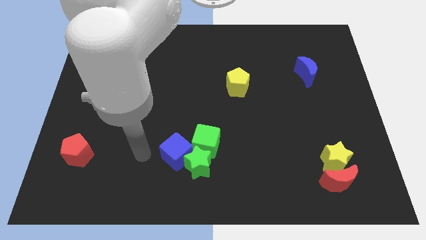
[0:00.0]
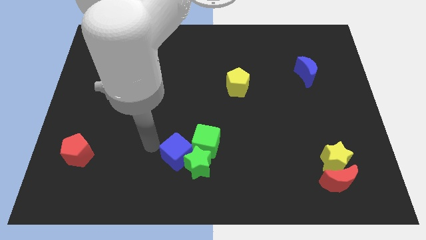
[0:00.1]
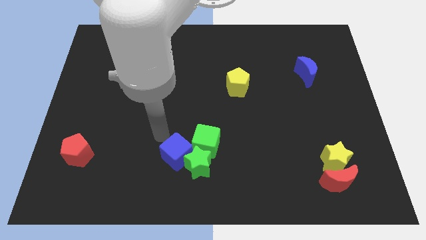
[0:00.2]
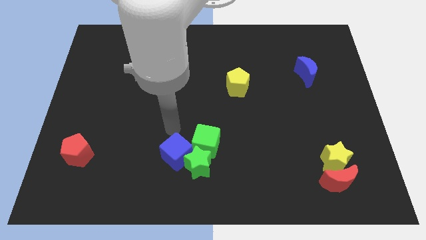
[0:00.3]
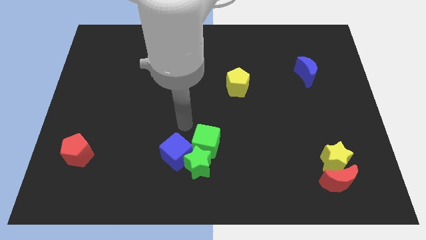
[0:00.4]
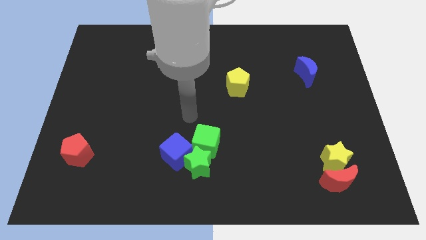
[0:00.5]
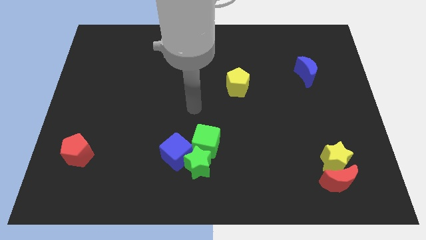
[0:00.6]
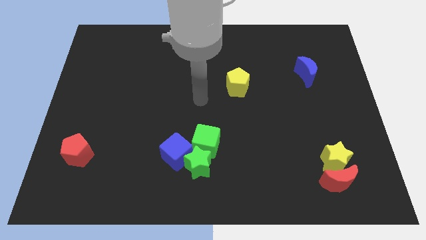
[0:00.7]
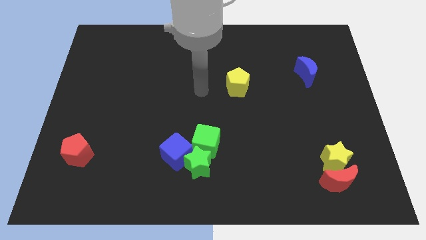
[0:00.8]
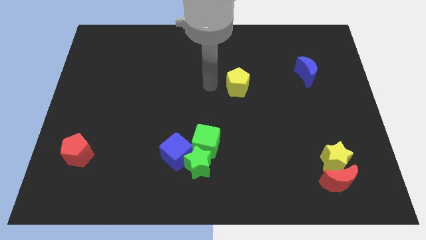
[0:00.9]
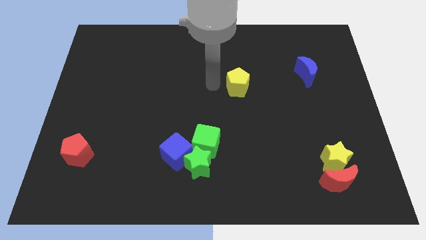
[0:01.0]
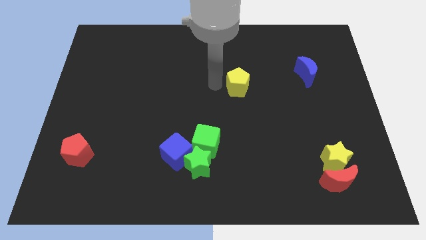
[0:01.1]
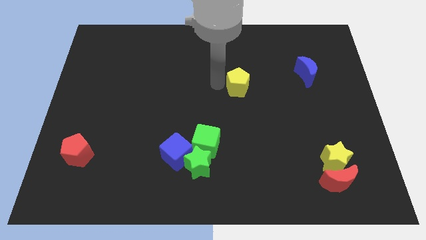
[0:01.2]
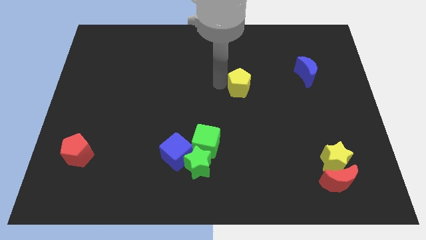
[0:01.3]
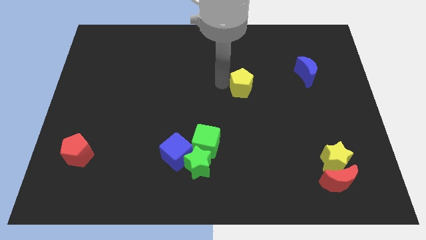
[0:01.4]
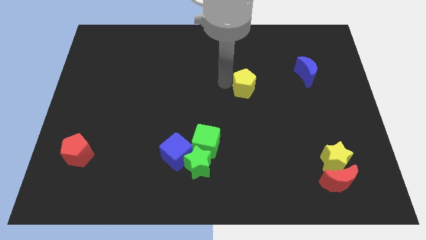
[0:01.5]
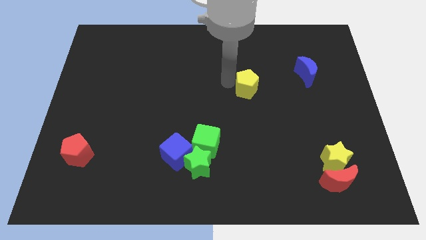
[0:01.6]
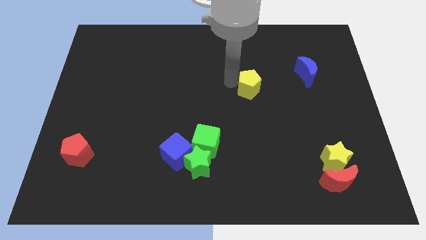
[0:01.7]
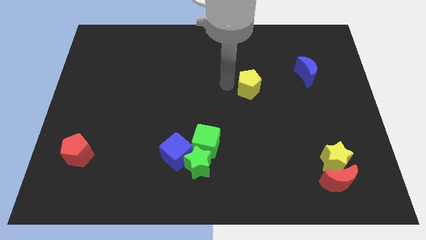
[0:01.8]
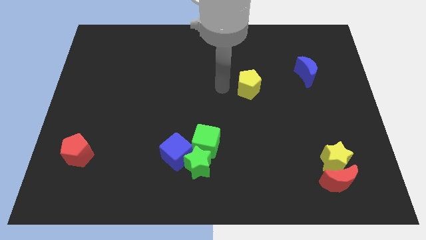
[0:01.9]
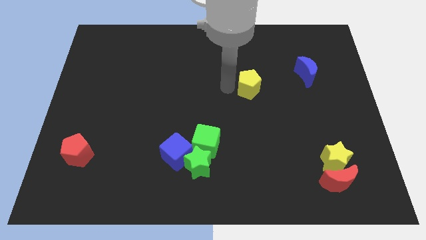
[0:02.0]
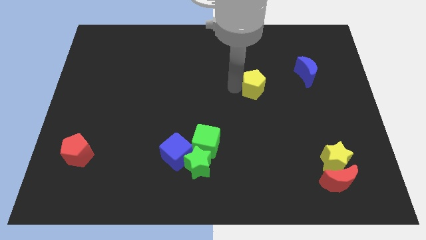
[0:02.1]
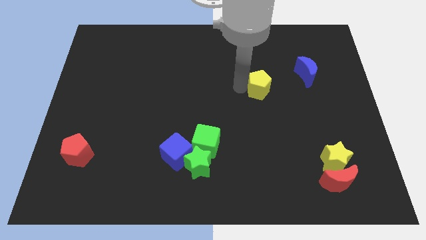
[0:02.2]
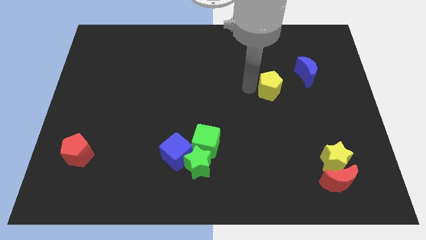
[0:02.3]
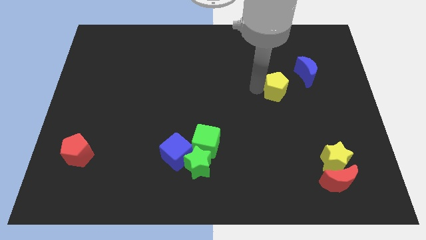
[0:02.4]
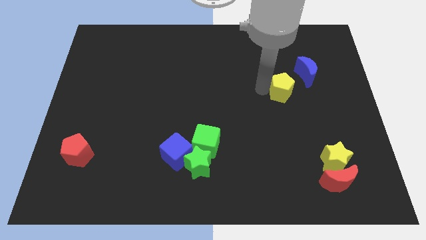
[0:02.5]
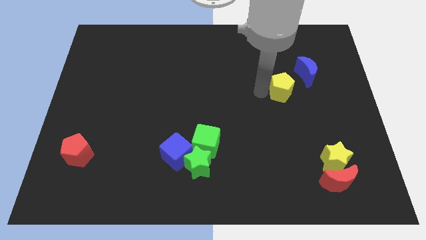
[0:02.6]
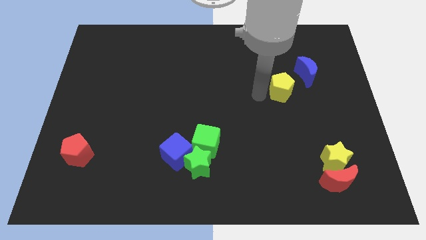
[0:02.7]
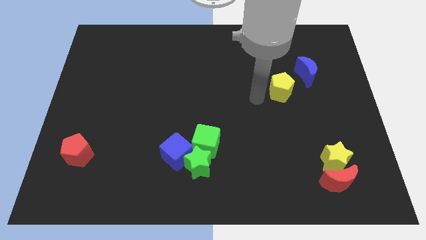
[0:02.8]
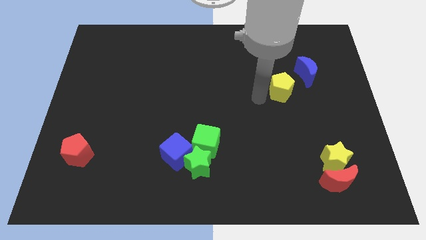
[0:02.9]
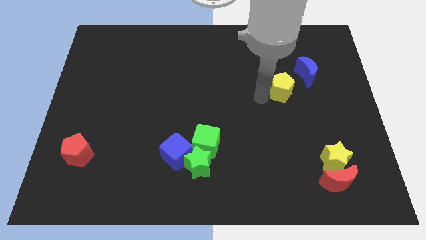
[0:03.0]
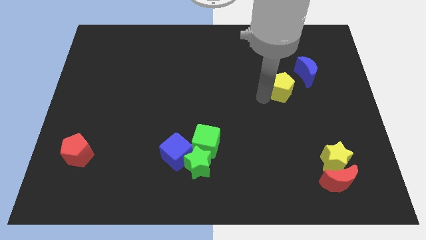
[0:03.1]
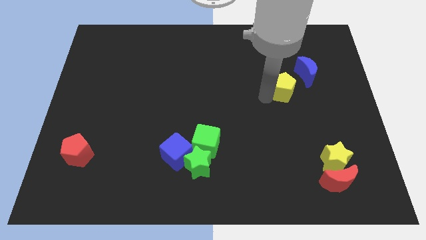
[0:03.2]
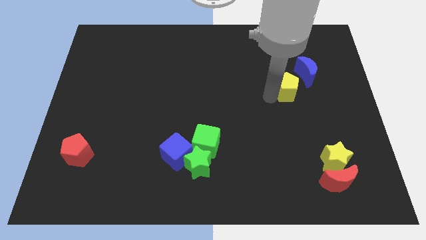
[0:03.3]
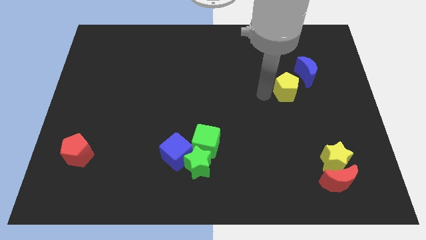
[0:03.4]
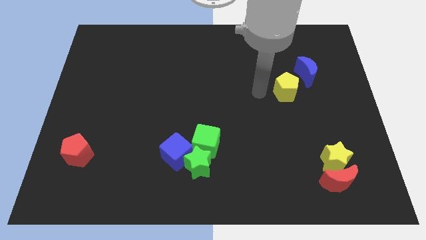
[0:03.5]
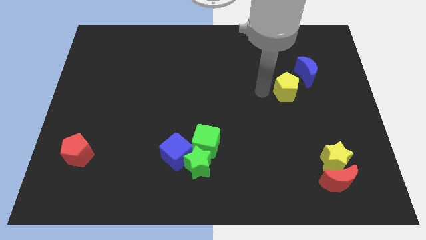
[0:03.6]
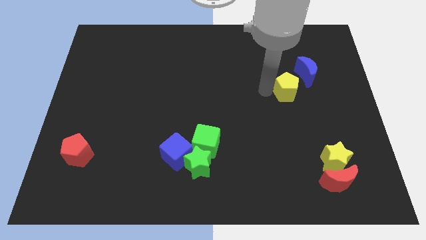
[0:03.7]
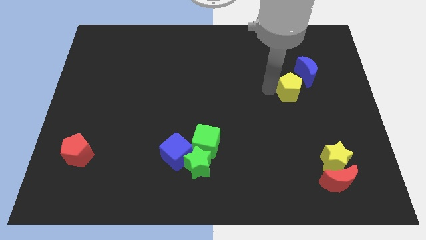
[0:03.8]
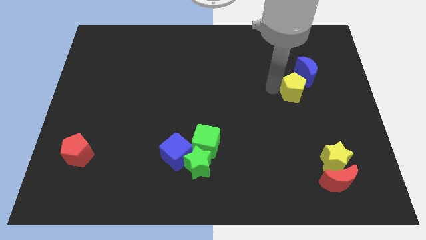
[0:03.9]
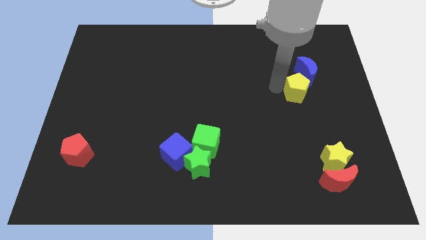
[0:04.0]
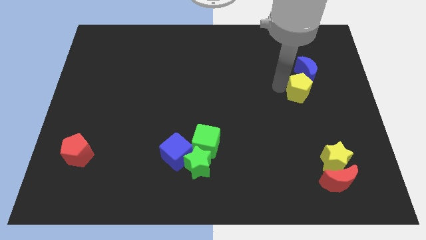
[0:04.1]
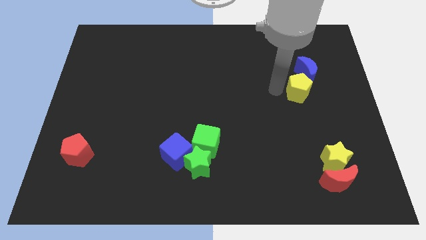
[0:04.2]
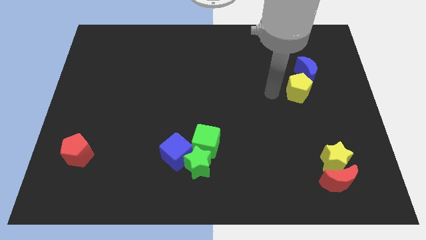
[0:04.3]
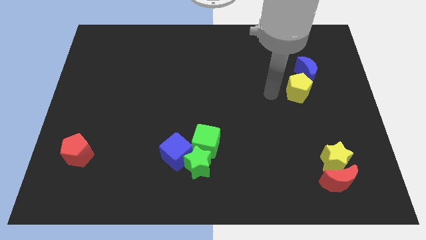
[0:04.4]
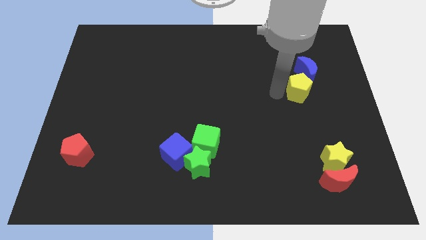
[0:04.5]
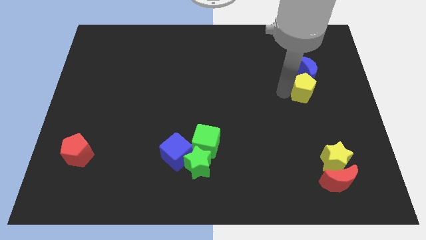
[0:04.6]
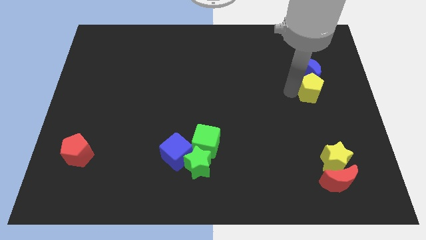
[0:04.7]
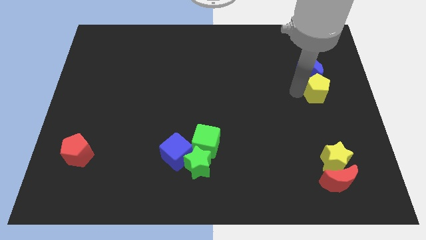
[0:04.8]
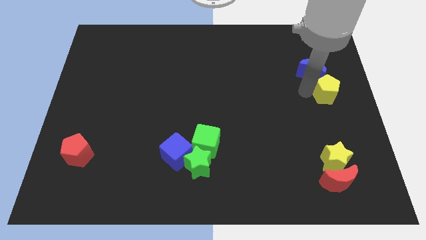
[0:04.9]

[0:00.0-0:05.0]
slide the yellow pentagon to the right side

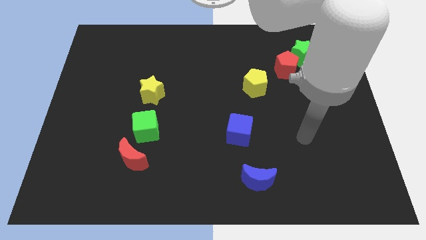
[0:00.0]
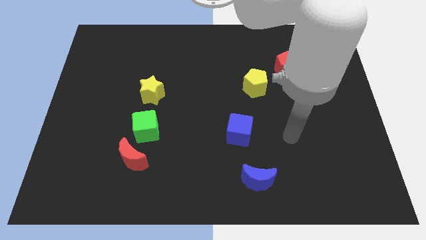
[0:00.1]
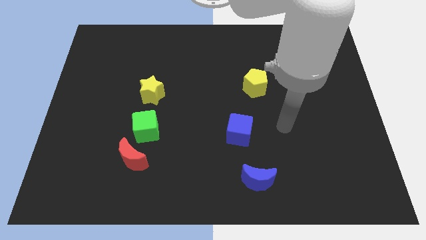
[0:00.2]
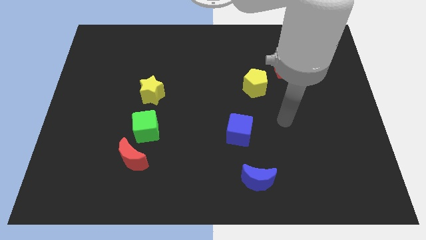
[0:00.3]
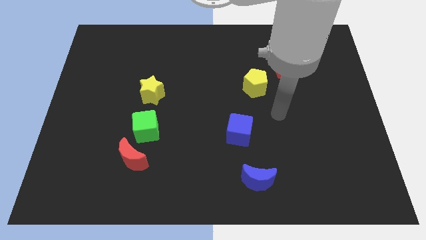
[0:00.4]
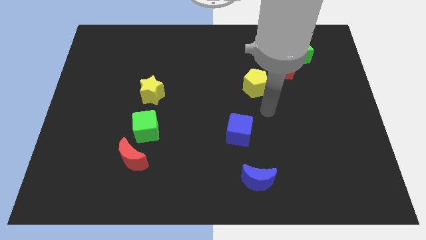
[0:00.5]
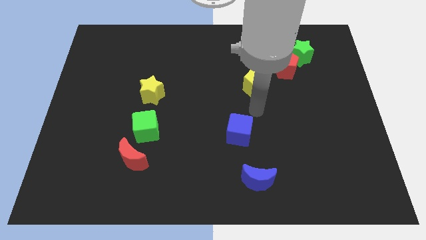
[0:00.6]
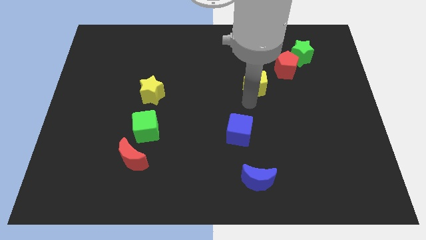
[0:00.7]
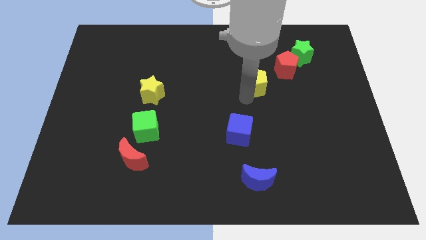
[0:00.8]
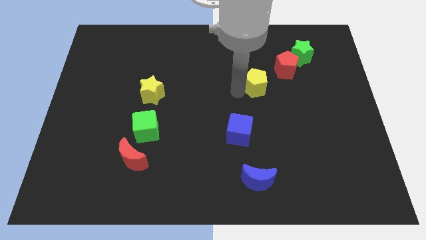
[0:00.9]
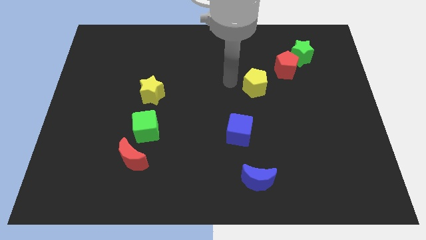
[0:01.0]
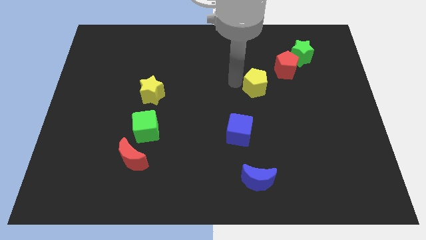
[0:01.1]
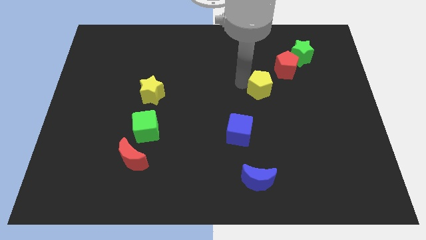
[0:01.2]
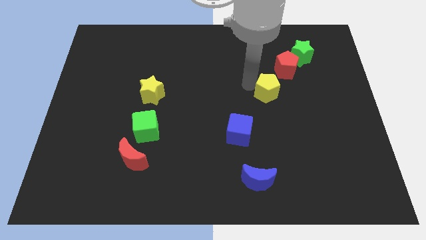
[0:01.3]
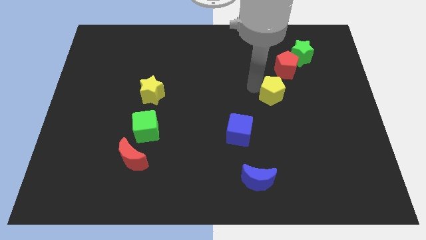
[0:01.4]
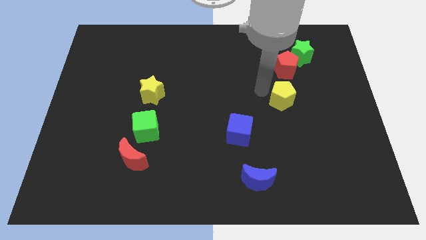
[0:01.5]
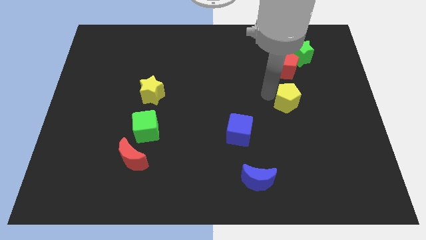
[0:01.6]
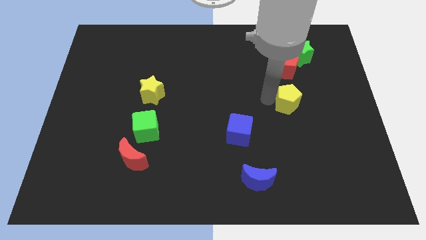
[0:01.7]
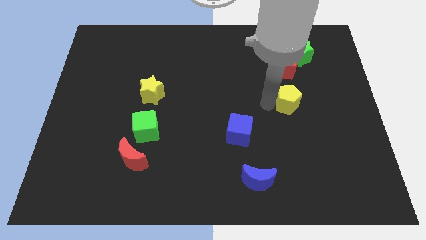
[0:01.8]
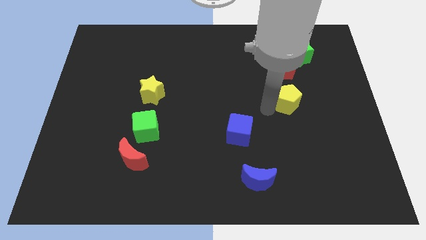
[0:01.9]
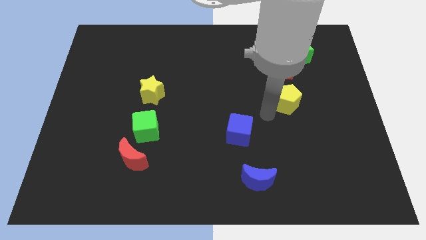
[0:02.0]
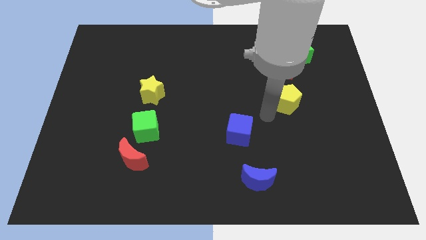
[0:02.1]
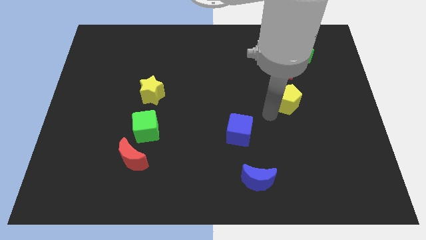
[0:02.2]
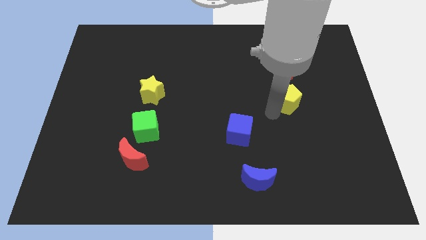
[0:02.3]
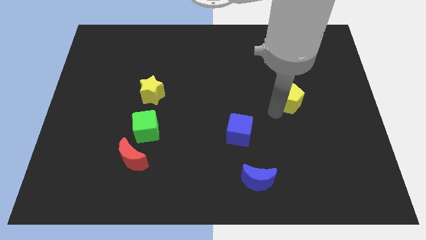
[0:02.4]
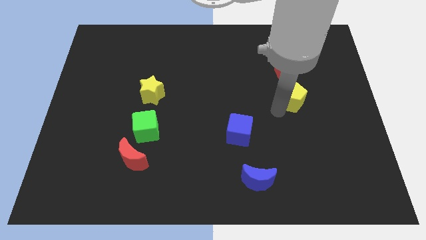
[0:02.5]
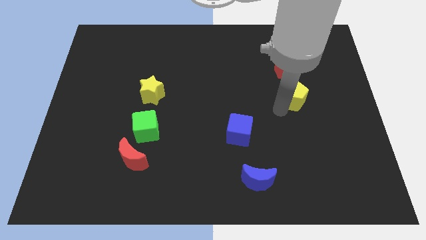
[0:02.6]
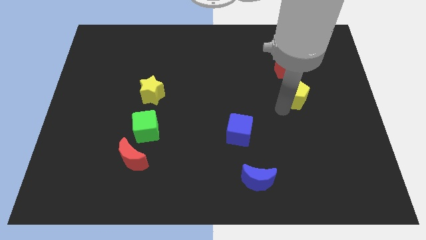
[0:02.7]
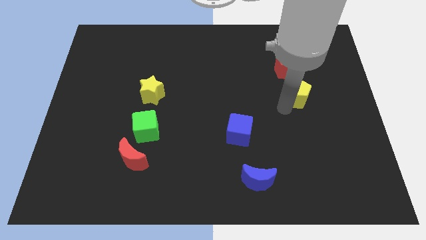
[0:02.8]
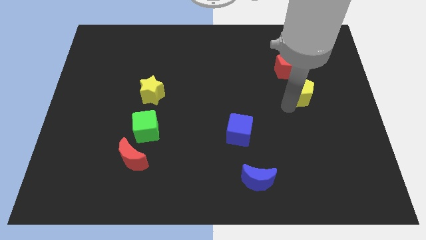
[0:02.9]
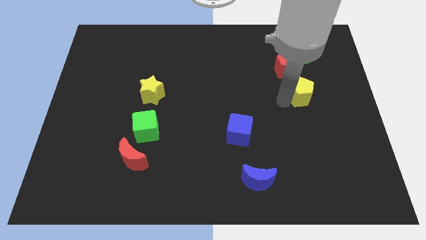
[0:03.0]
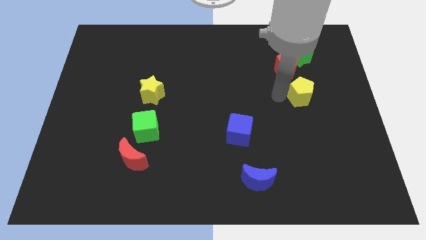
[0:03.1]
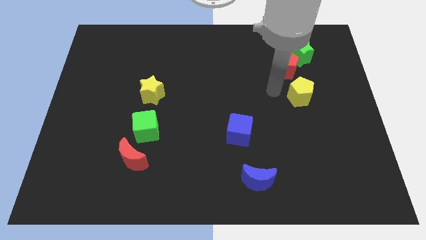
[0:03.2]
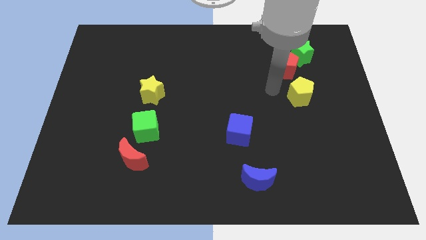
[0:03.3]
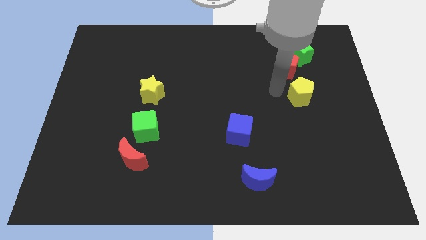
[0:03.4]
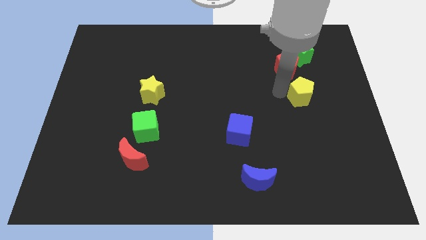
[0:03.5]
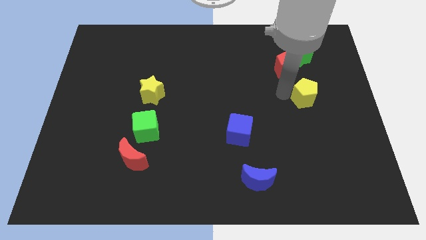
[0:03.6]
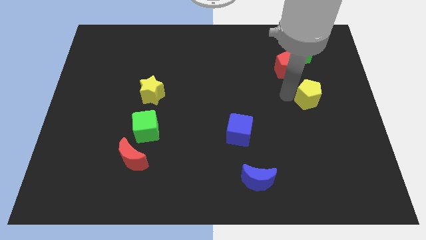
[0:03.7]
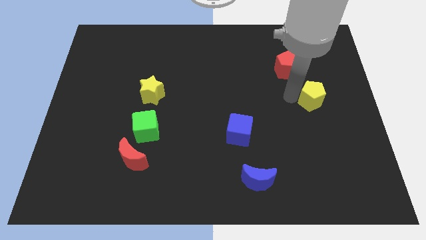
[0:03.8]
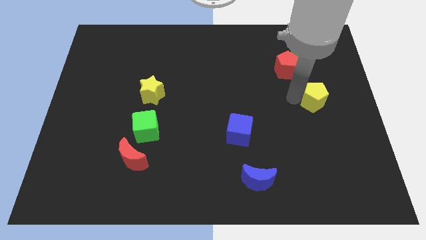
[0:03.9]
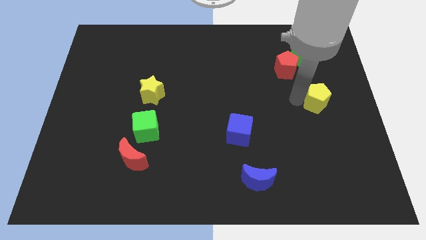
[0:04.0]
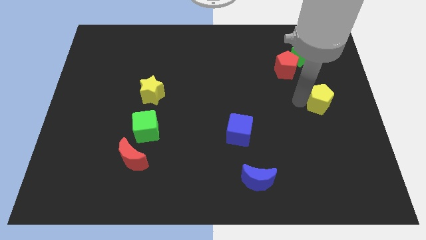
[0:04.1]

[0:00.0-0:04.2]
slide the yellow pentagon to the right side of the board
